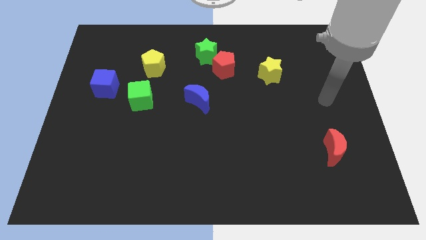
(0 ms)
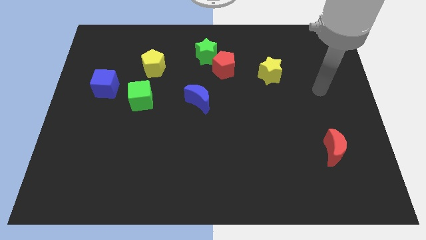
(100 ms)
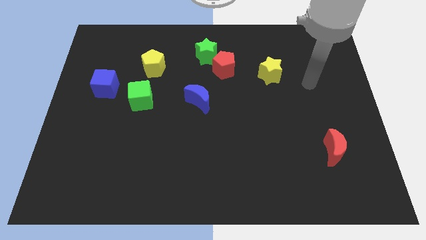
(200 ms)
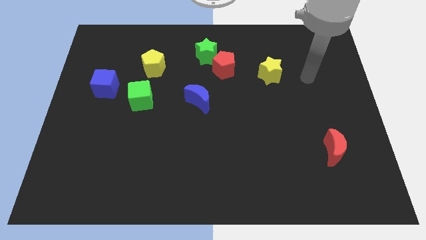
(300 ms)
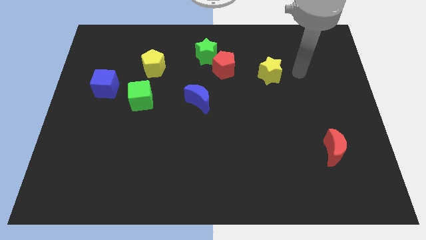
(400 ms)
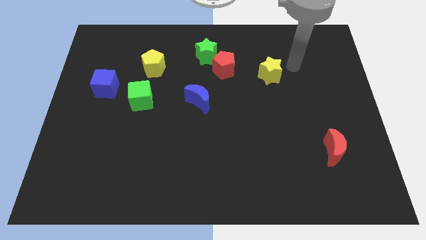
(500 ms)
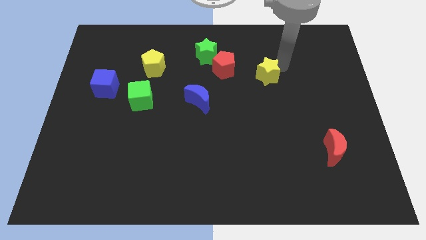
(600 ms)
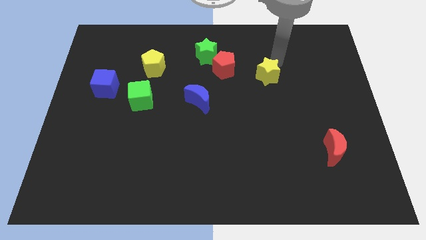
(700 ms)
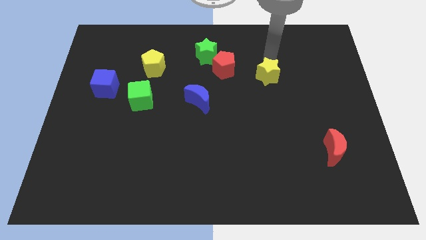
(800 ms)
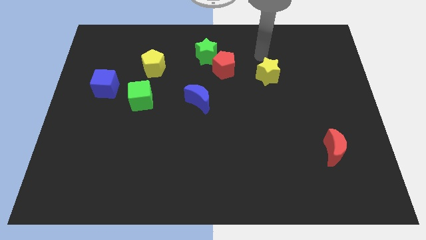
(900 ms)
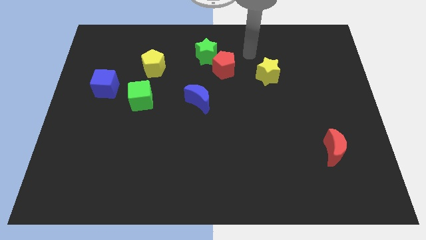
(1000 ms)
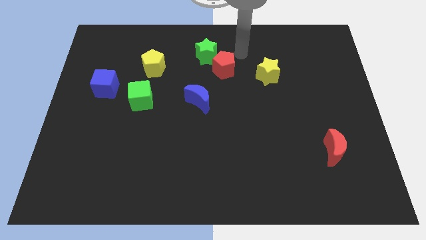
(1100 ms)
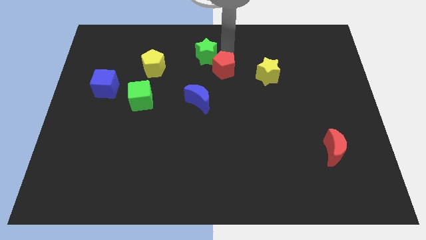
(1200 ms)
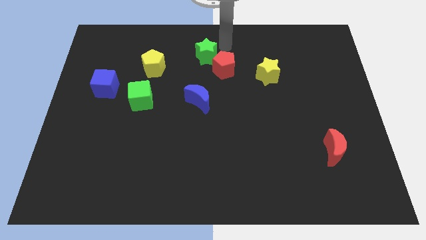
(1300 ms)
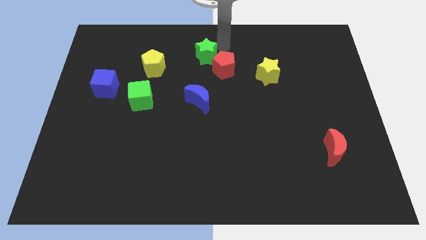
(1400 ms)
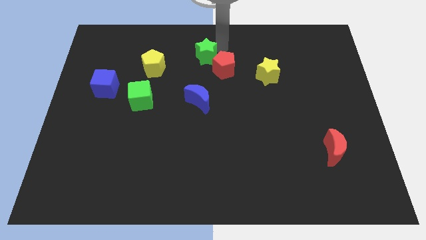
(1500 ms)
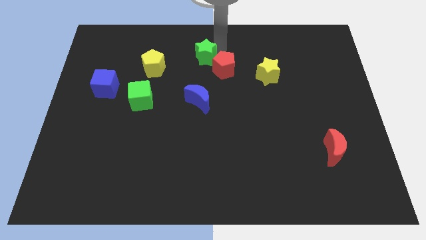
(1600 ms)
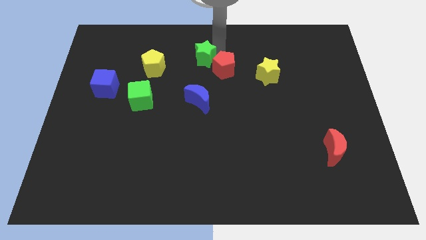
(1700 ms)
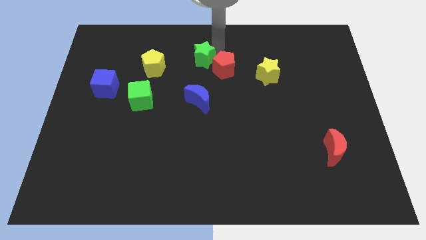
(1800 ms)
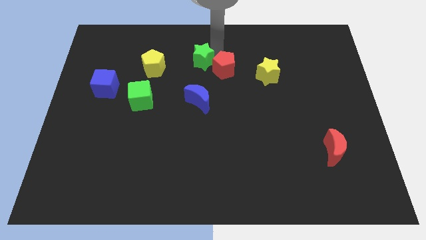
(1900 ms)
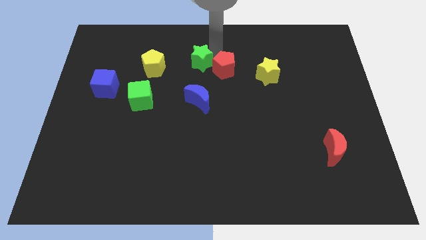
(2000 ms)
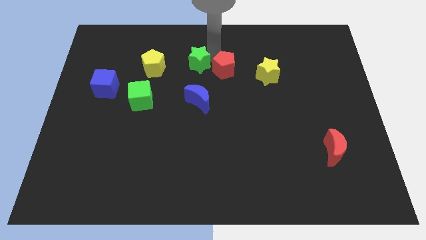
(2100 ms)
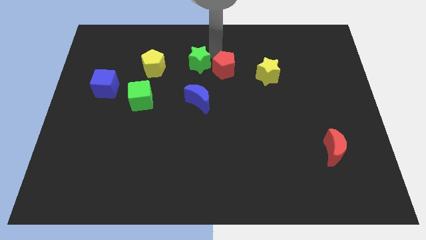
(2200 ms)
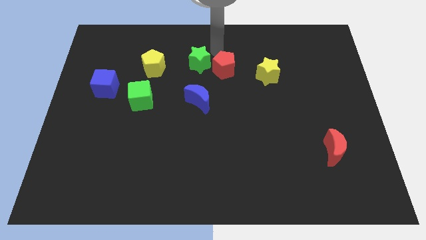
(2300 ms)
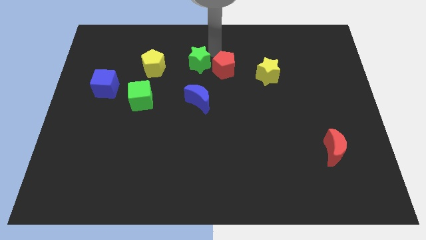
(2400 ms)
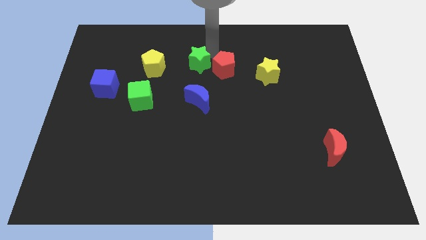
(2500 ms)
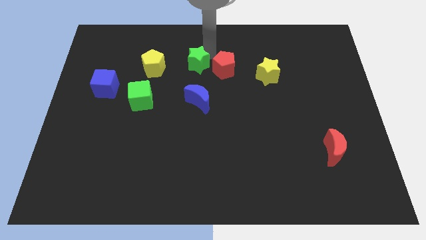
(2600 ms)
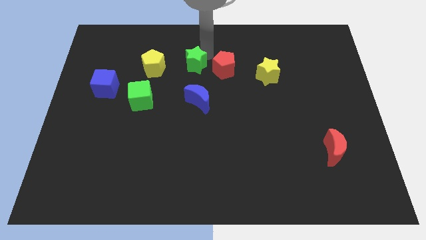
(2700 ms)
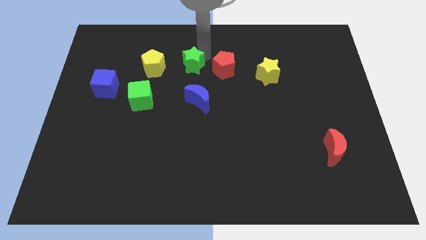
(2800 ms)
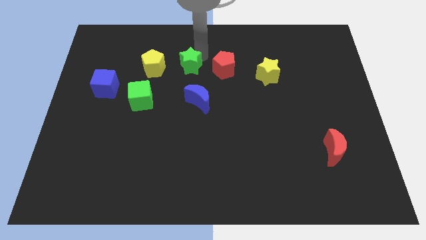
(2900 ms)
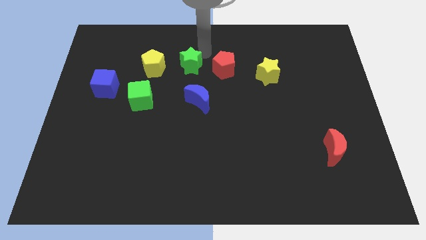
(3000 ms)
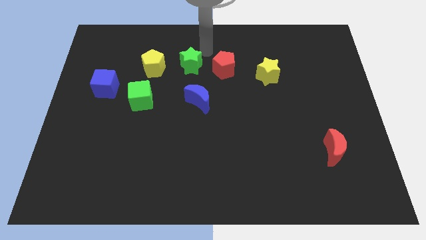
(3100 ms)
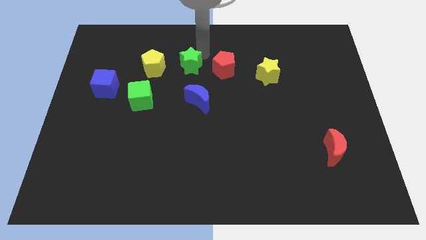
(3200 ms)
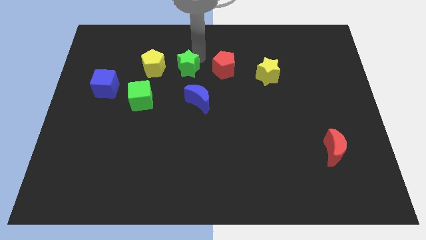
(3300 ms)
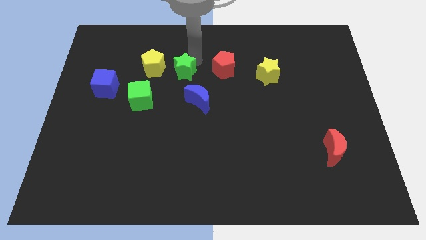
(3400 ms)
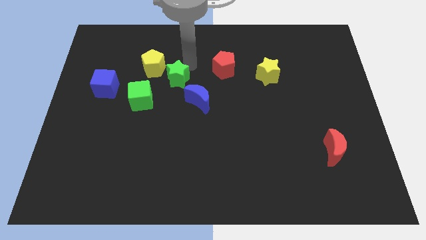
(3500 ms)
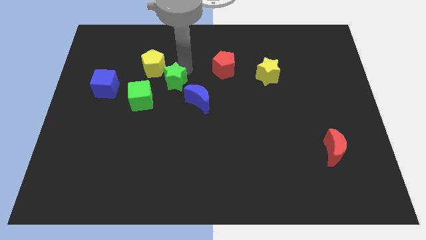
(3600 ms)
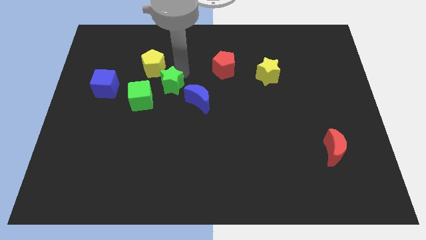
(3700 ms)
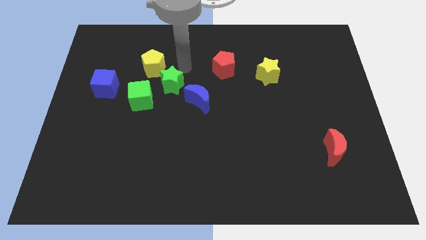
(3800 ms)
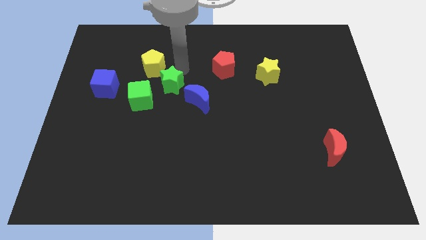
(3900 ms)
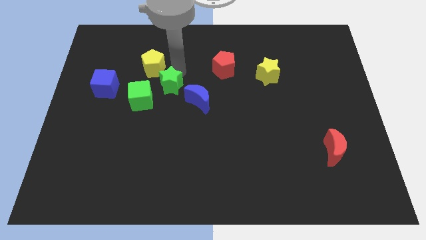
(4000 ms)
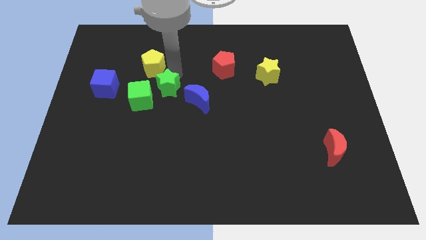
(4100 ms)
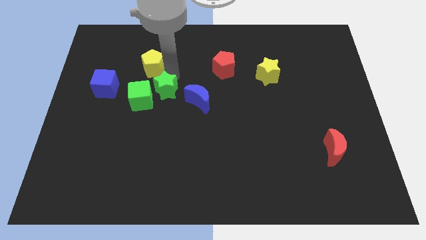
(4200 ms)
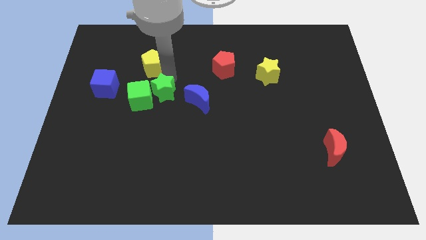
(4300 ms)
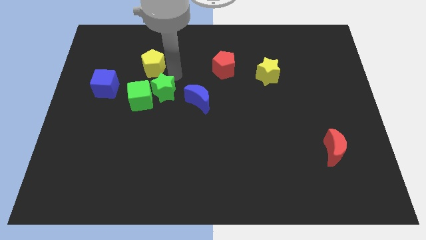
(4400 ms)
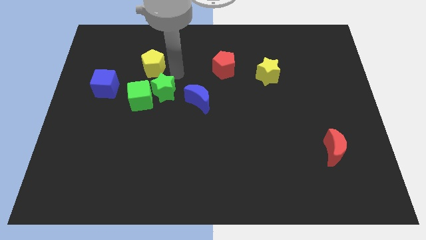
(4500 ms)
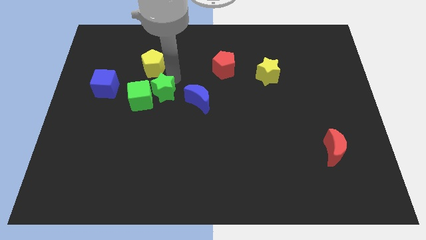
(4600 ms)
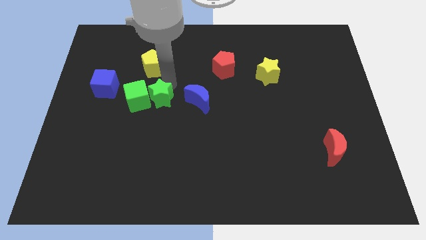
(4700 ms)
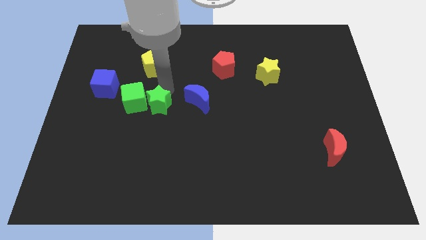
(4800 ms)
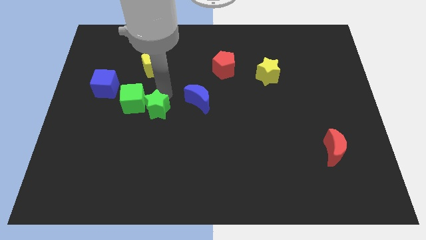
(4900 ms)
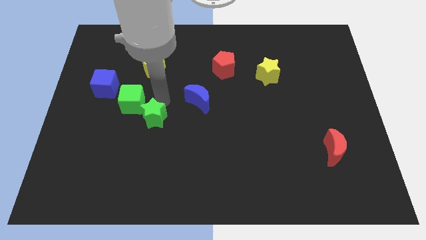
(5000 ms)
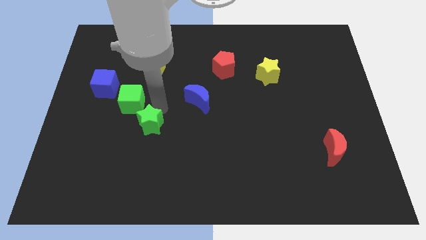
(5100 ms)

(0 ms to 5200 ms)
slide the green star to the bottom side of the green cube

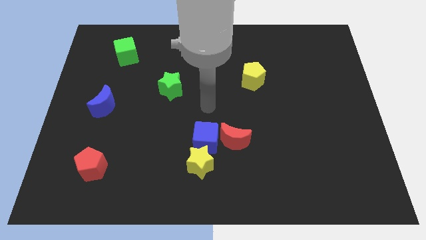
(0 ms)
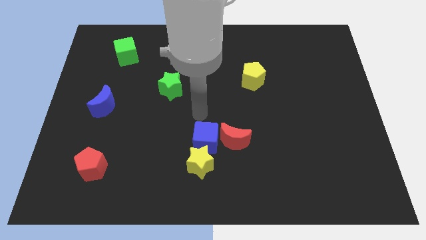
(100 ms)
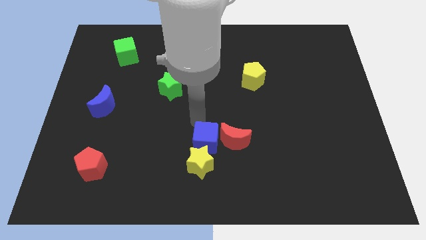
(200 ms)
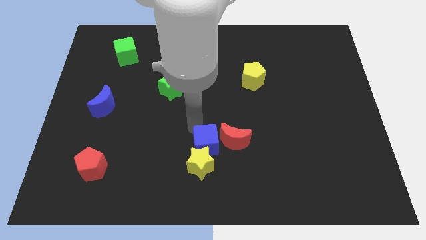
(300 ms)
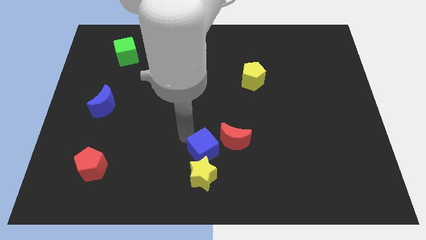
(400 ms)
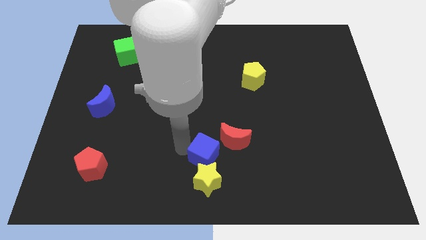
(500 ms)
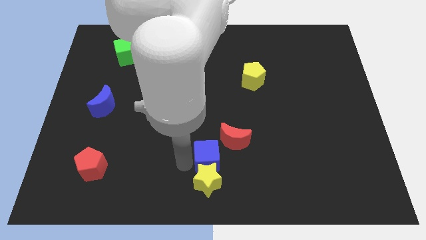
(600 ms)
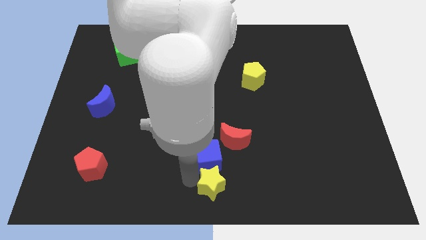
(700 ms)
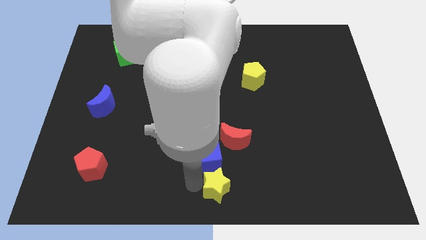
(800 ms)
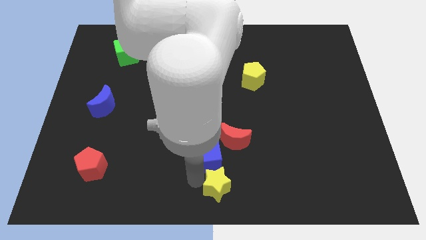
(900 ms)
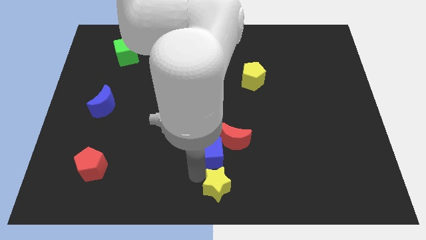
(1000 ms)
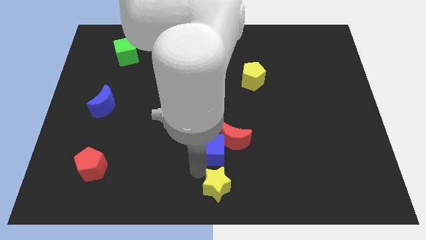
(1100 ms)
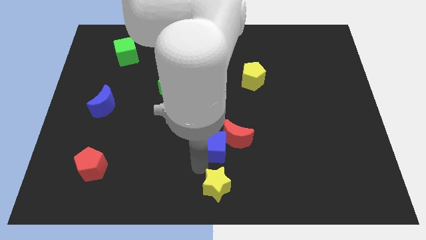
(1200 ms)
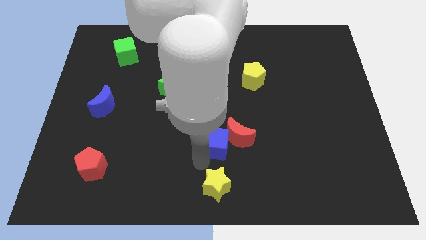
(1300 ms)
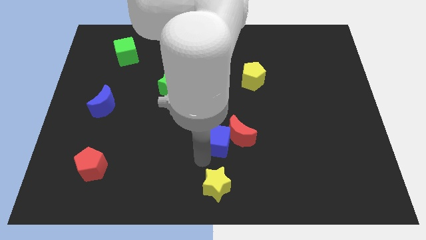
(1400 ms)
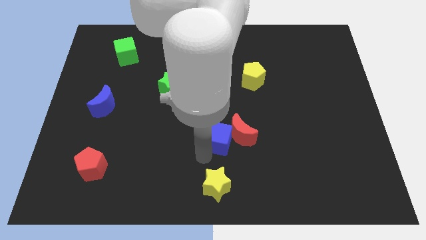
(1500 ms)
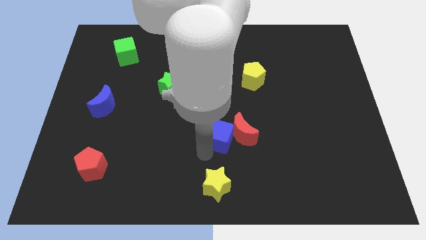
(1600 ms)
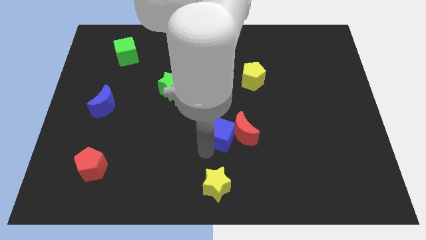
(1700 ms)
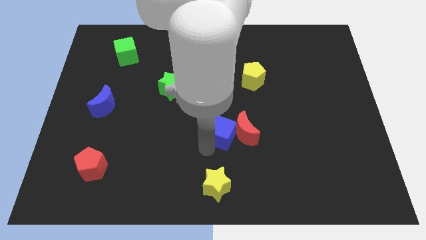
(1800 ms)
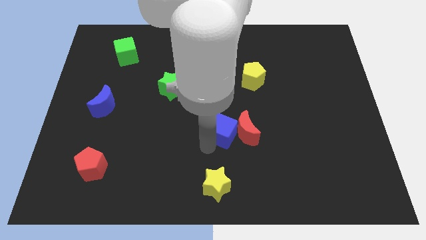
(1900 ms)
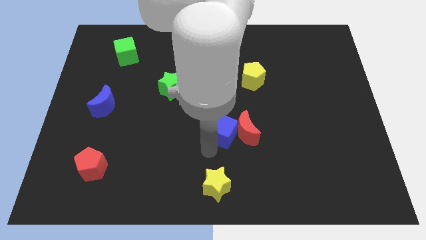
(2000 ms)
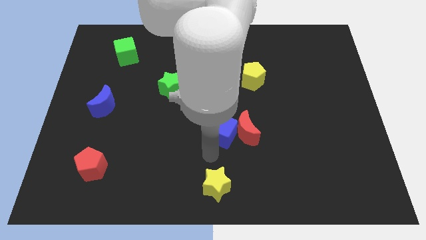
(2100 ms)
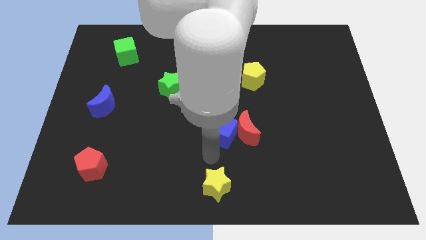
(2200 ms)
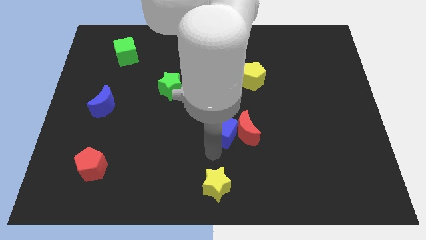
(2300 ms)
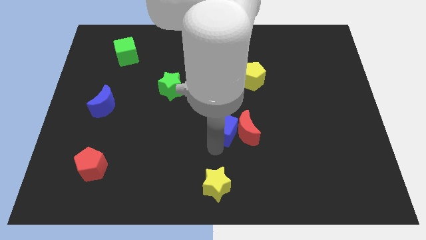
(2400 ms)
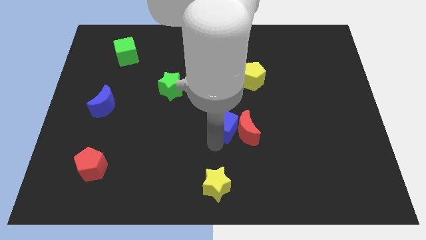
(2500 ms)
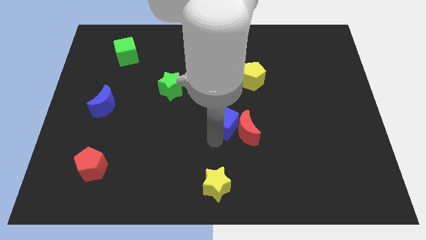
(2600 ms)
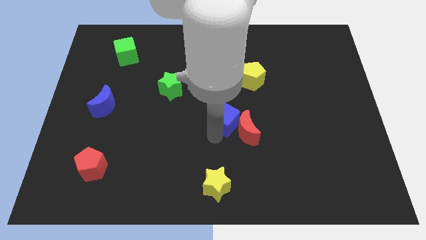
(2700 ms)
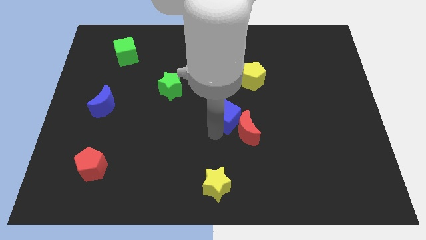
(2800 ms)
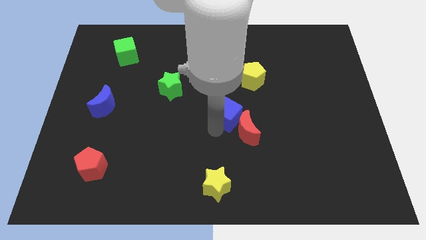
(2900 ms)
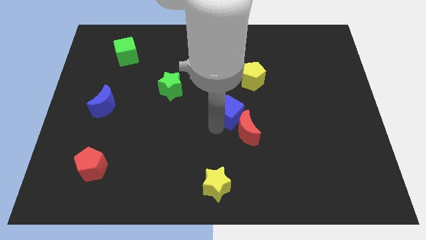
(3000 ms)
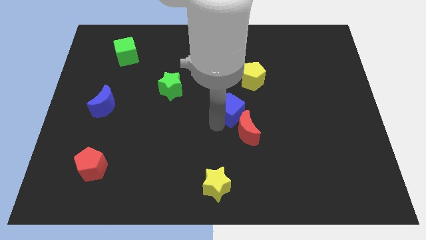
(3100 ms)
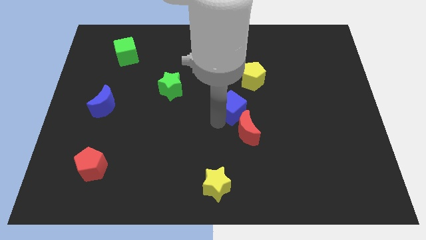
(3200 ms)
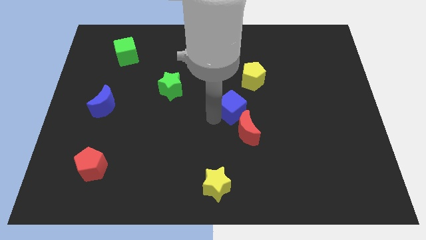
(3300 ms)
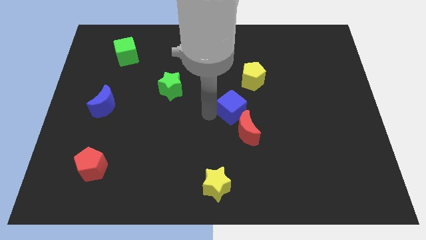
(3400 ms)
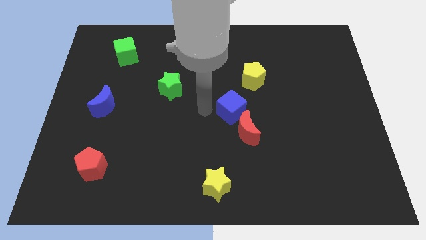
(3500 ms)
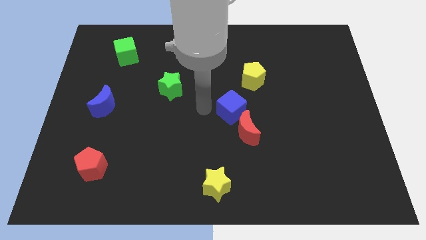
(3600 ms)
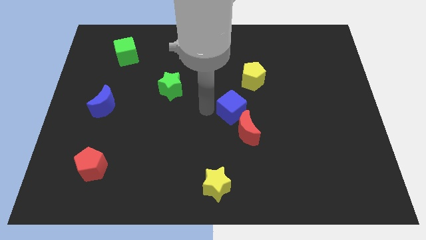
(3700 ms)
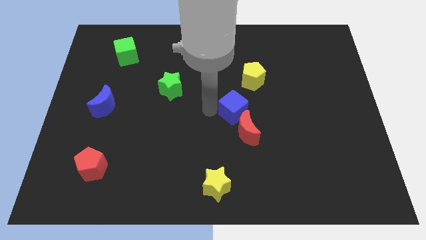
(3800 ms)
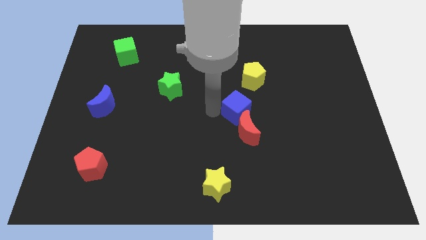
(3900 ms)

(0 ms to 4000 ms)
push the blue cube to the bottom side of the yellow pentagon
